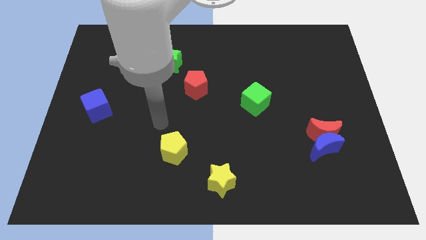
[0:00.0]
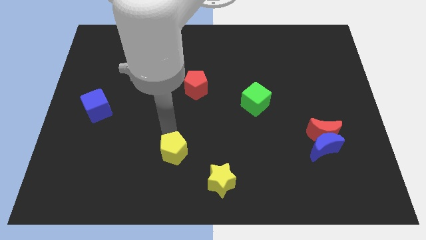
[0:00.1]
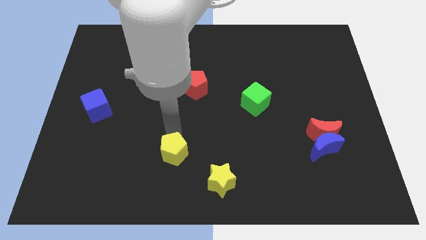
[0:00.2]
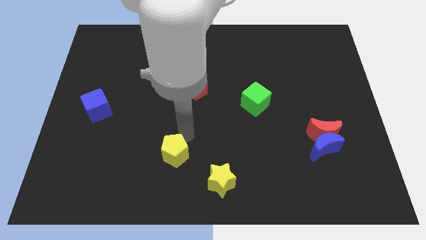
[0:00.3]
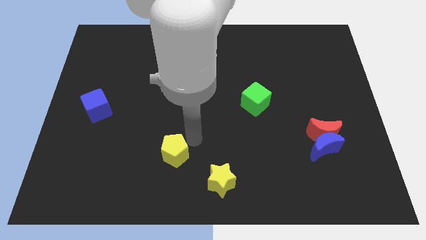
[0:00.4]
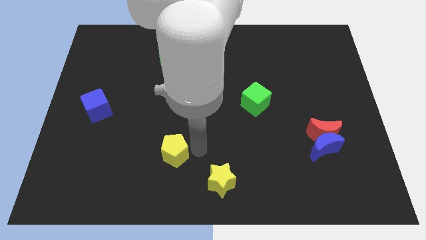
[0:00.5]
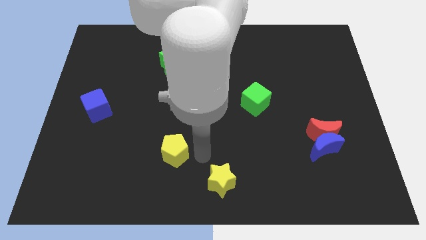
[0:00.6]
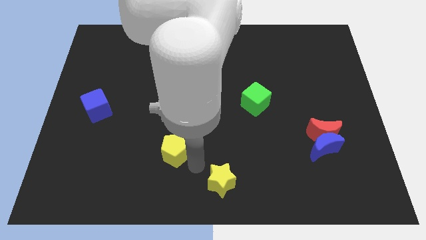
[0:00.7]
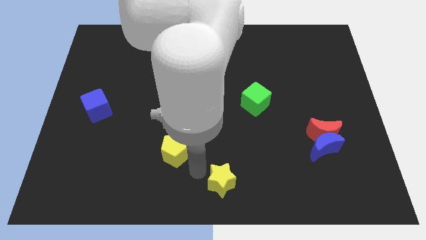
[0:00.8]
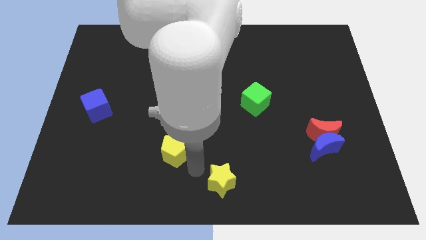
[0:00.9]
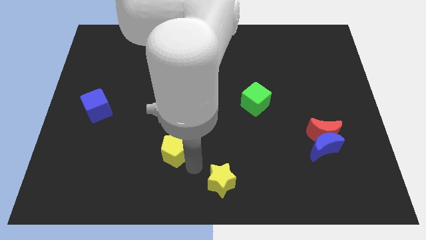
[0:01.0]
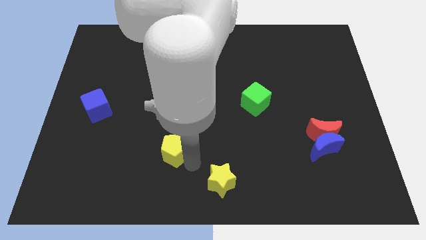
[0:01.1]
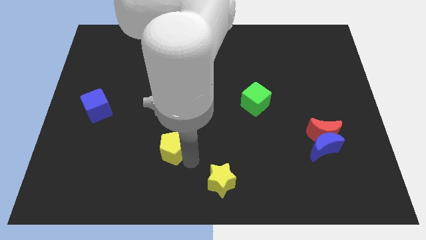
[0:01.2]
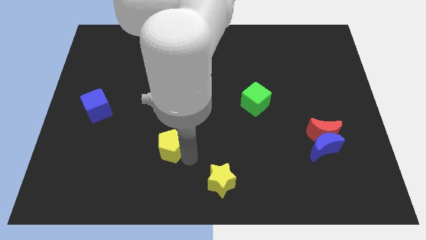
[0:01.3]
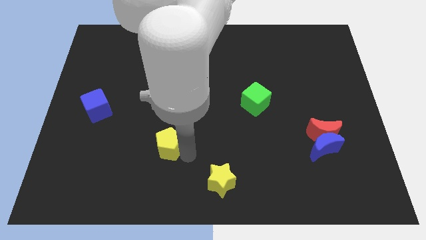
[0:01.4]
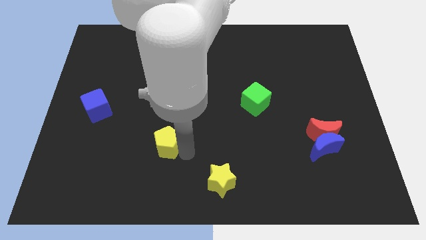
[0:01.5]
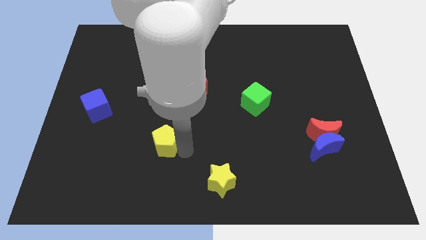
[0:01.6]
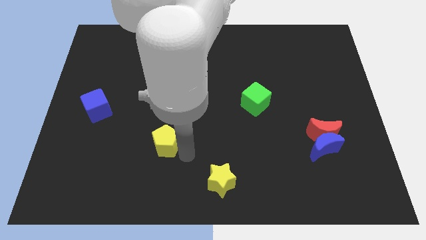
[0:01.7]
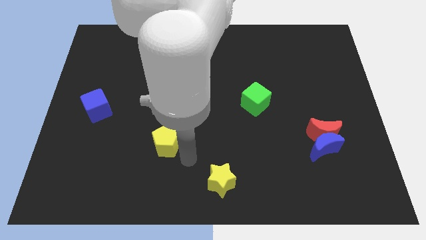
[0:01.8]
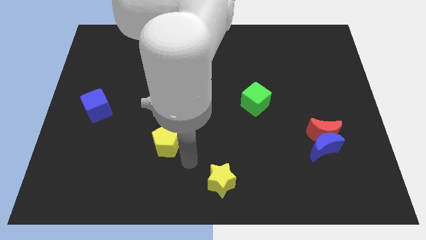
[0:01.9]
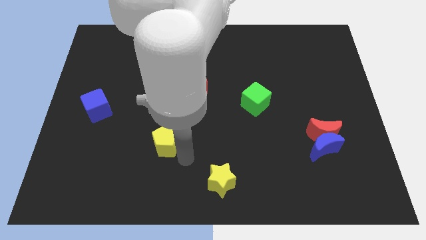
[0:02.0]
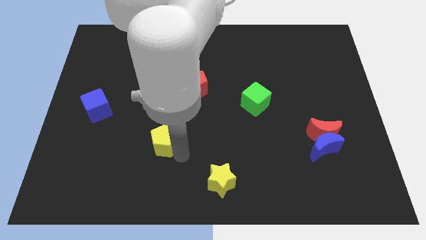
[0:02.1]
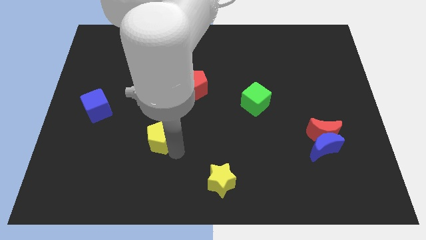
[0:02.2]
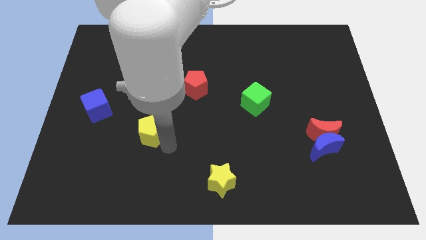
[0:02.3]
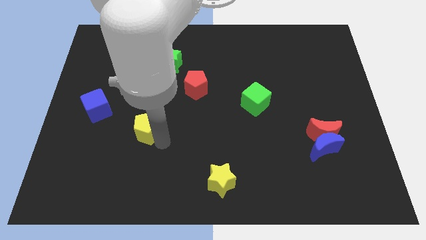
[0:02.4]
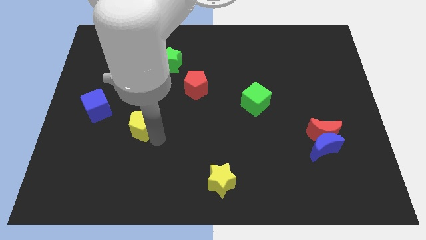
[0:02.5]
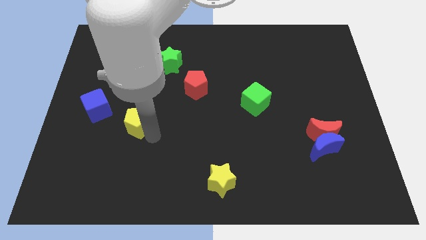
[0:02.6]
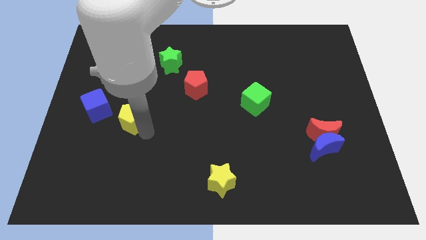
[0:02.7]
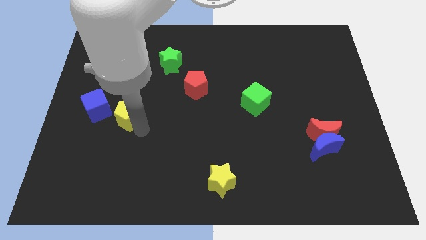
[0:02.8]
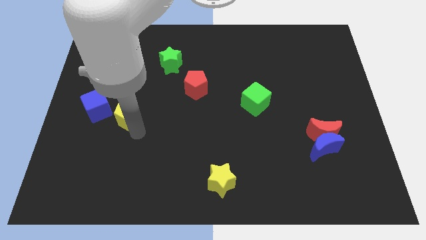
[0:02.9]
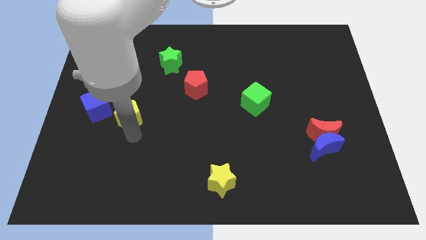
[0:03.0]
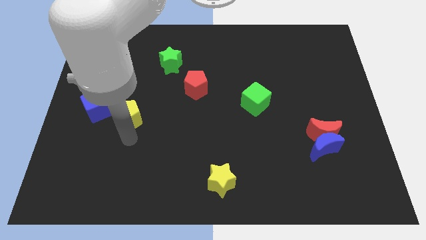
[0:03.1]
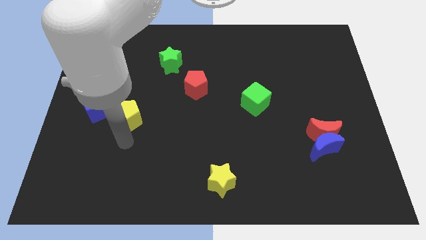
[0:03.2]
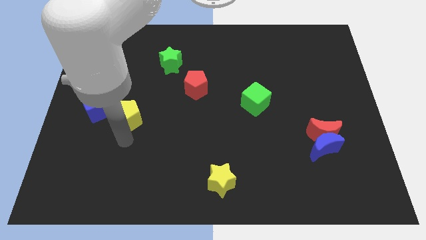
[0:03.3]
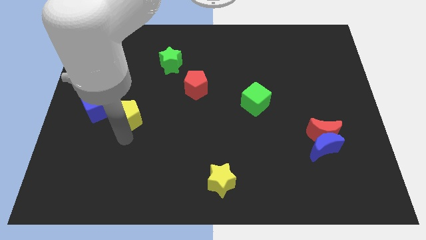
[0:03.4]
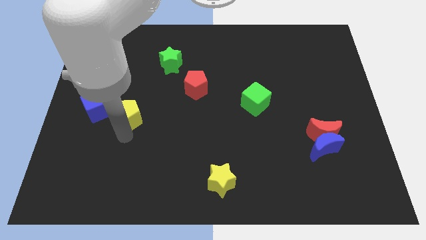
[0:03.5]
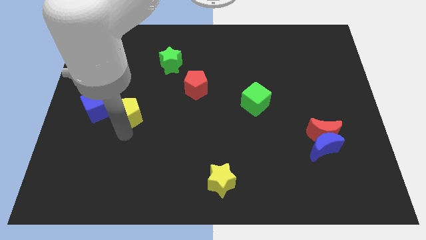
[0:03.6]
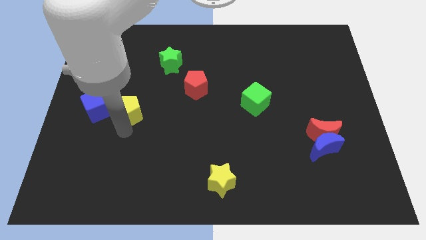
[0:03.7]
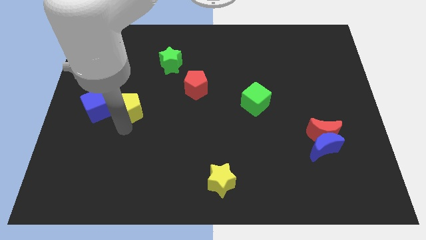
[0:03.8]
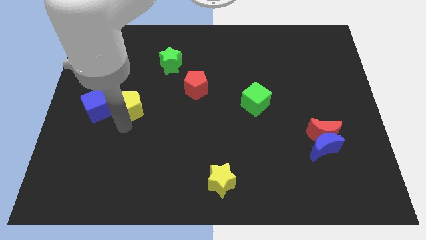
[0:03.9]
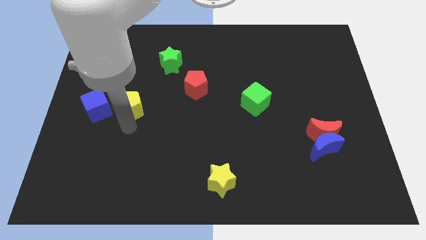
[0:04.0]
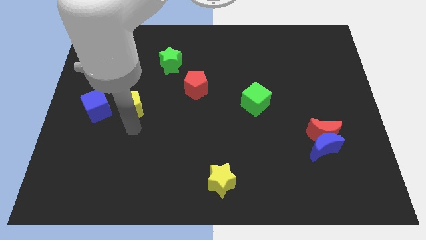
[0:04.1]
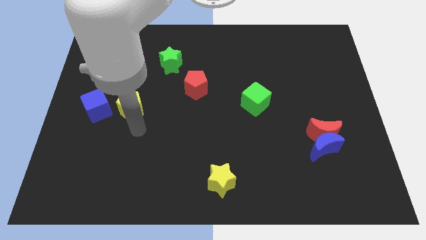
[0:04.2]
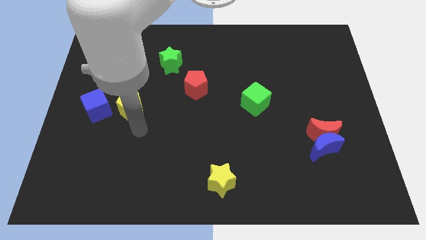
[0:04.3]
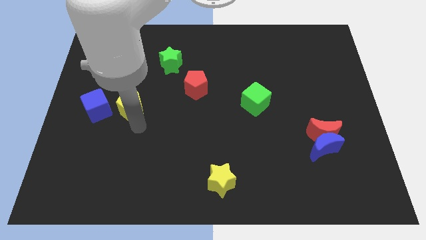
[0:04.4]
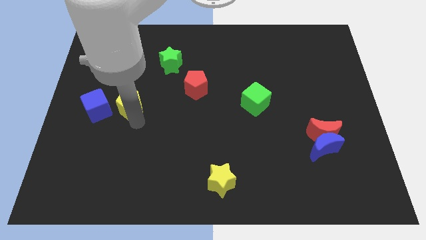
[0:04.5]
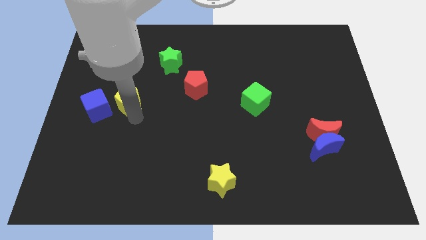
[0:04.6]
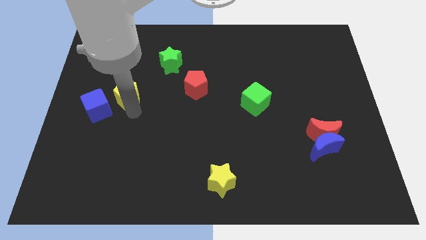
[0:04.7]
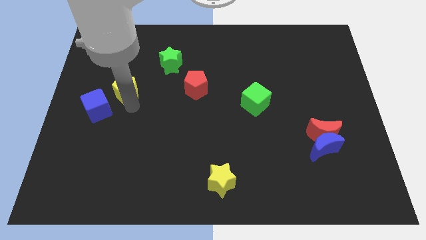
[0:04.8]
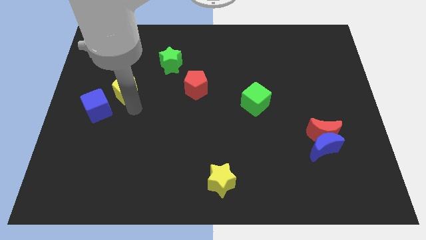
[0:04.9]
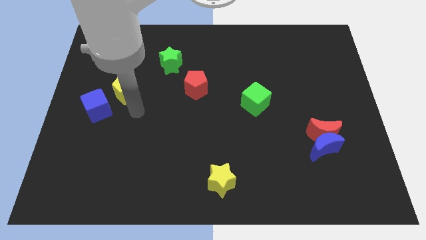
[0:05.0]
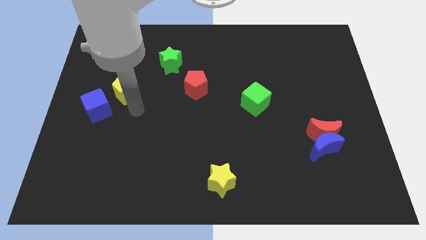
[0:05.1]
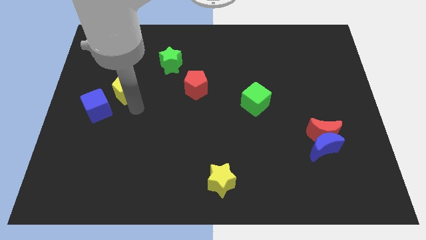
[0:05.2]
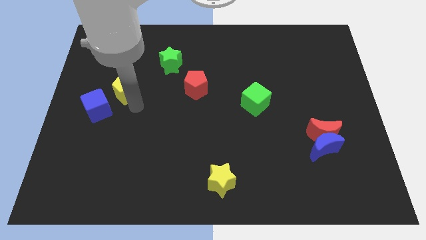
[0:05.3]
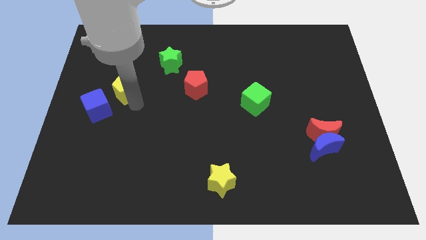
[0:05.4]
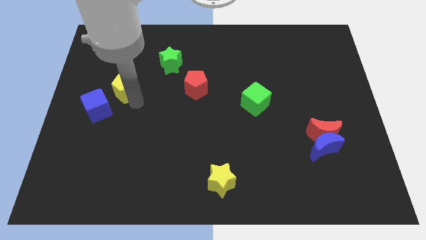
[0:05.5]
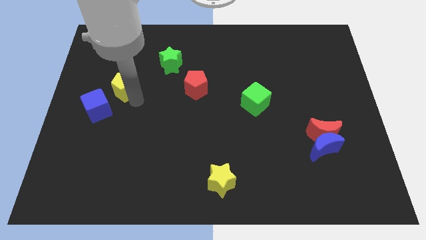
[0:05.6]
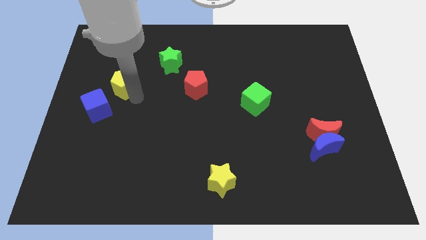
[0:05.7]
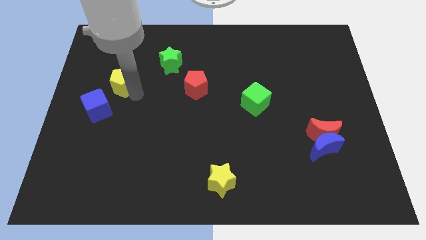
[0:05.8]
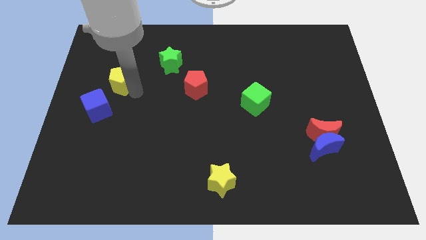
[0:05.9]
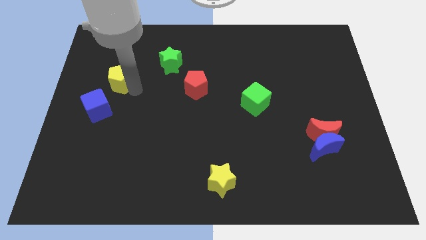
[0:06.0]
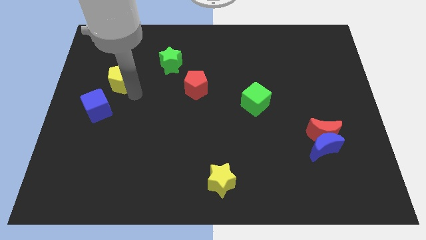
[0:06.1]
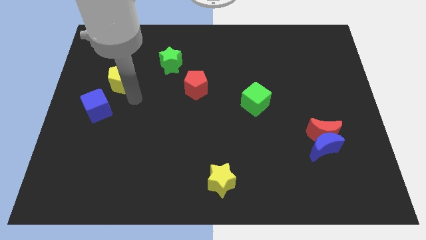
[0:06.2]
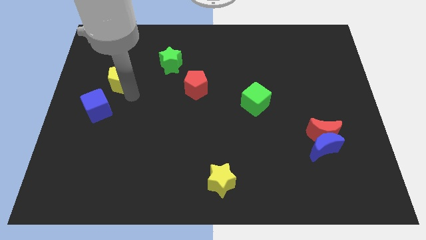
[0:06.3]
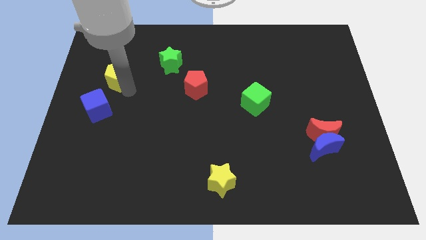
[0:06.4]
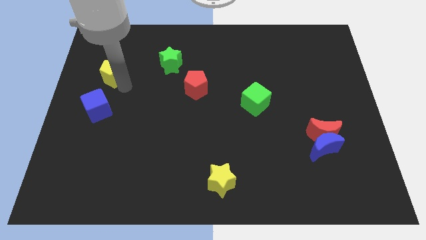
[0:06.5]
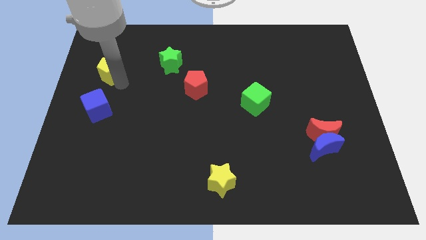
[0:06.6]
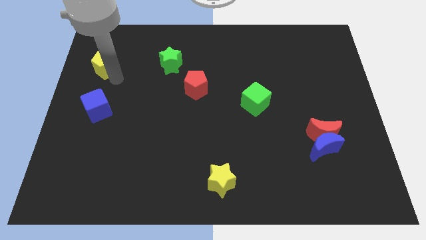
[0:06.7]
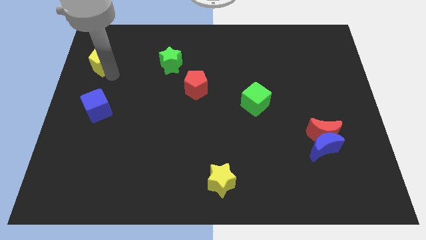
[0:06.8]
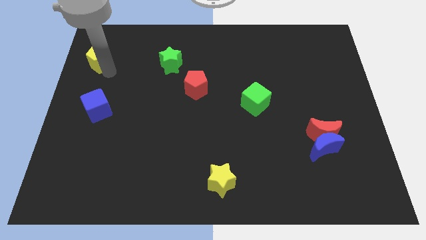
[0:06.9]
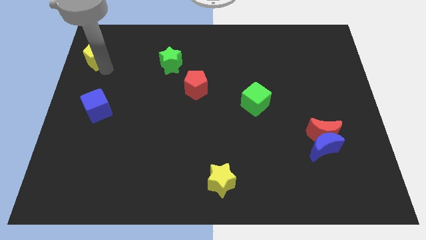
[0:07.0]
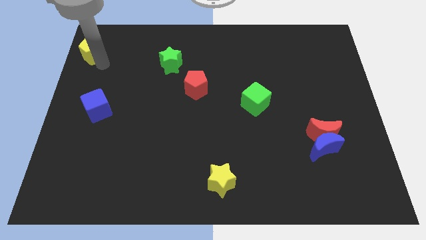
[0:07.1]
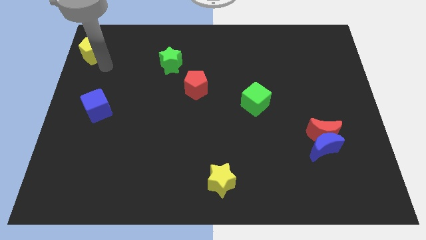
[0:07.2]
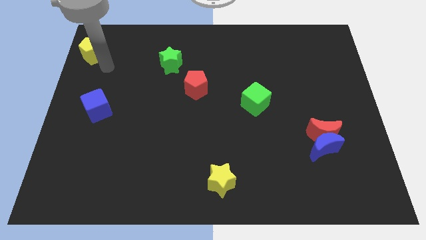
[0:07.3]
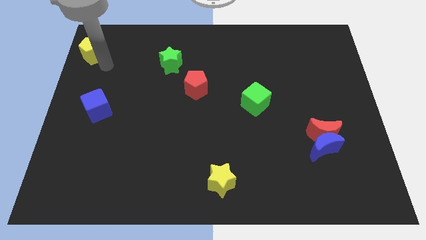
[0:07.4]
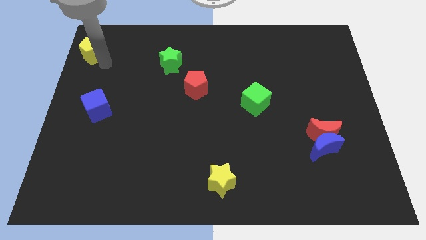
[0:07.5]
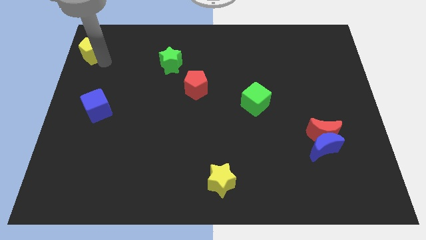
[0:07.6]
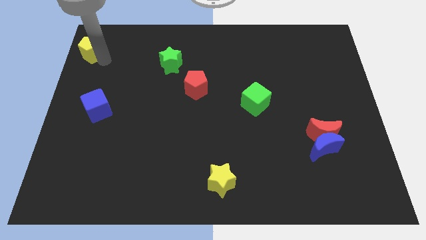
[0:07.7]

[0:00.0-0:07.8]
push the yellow pentagon to the top left corner
